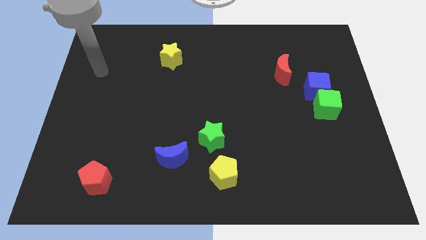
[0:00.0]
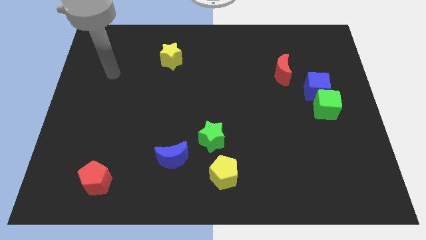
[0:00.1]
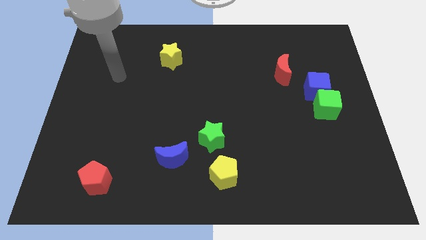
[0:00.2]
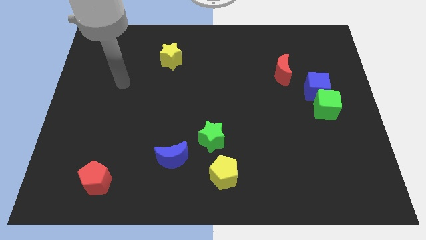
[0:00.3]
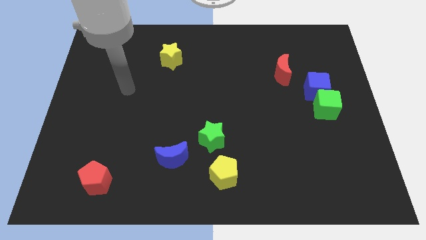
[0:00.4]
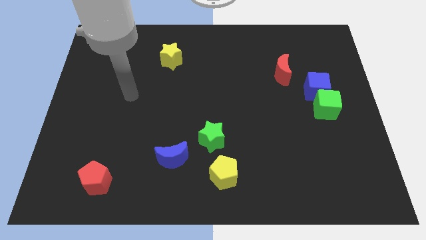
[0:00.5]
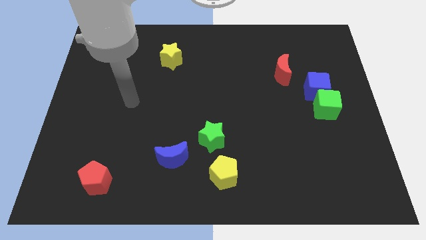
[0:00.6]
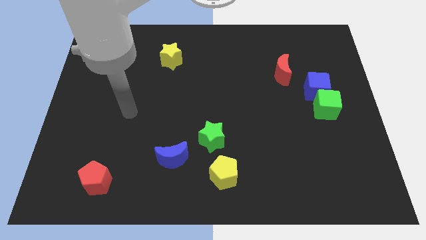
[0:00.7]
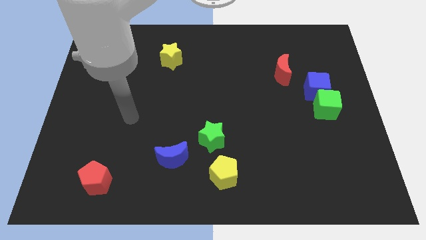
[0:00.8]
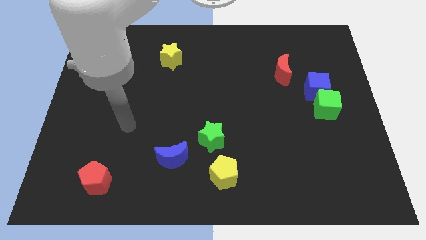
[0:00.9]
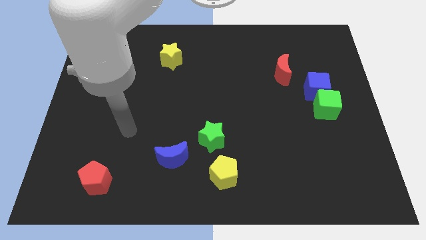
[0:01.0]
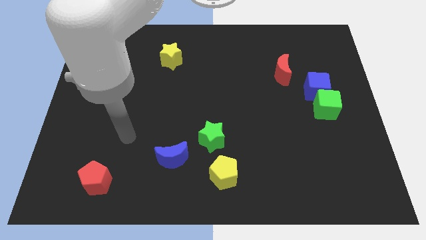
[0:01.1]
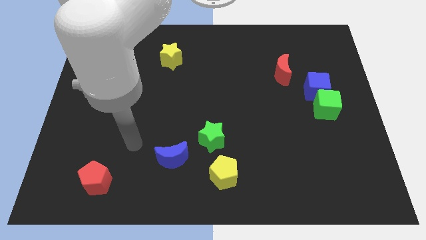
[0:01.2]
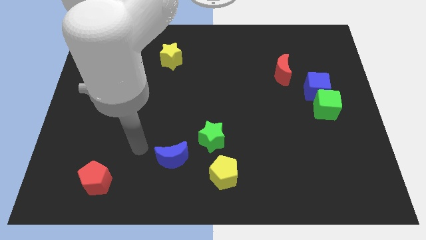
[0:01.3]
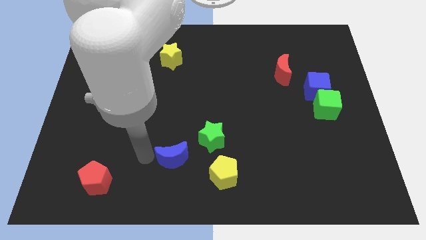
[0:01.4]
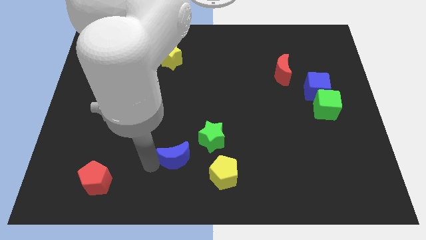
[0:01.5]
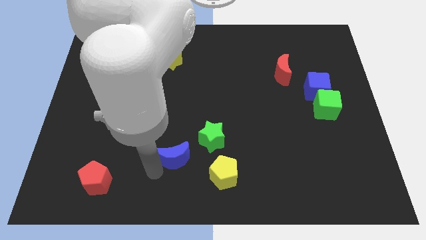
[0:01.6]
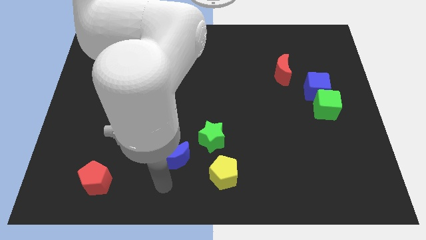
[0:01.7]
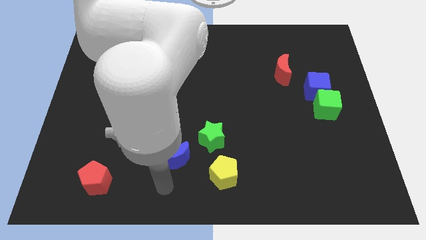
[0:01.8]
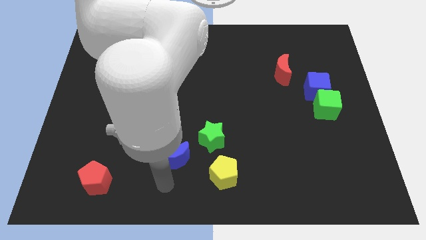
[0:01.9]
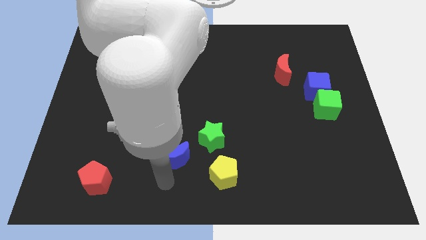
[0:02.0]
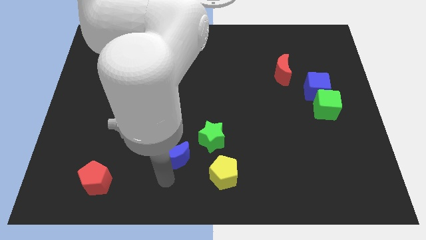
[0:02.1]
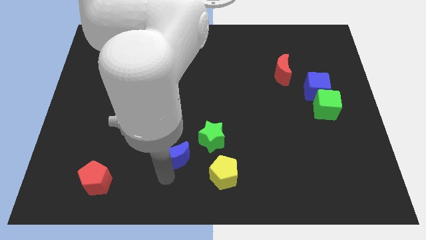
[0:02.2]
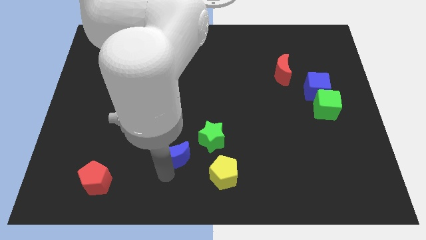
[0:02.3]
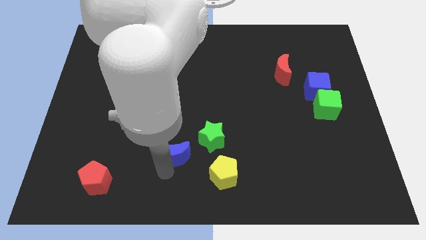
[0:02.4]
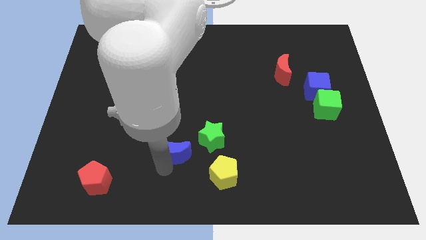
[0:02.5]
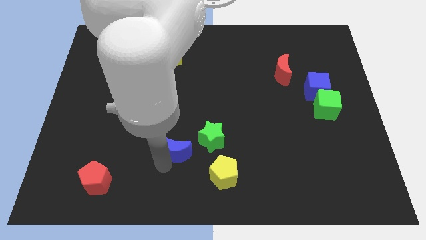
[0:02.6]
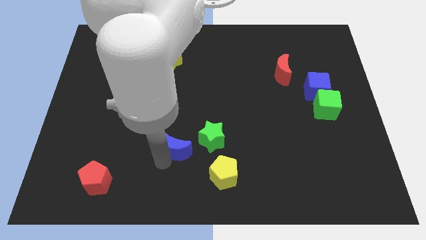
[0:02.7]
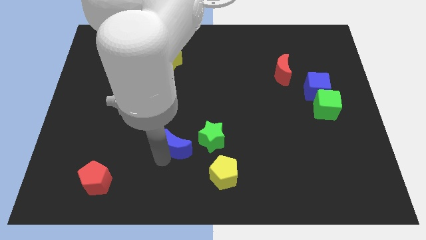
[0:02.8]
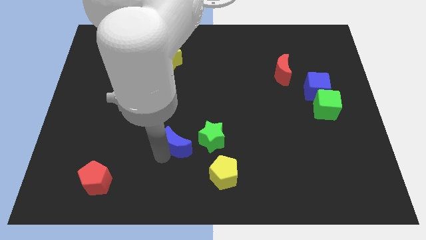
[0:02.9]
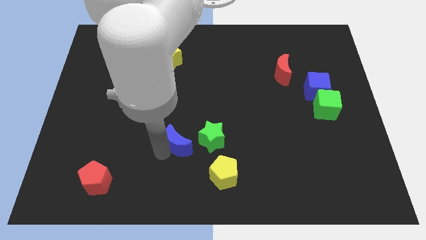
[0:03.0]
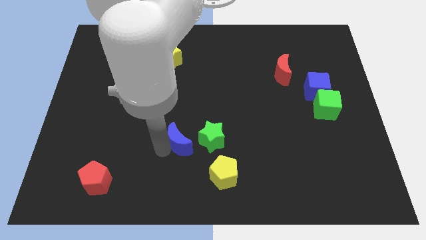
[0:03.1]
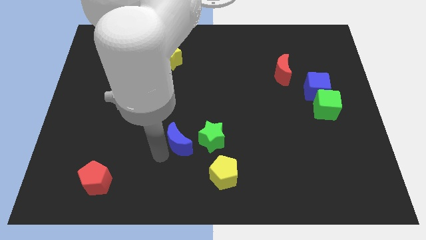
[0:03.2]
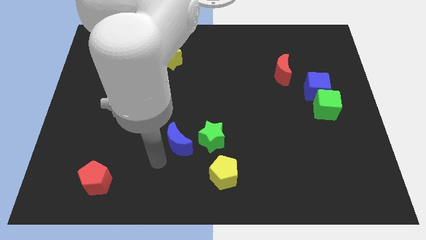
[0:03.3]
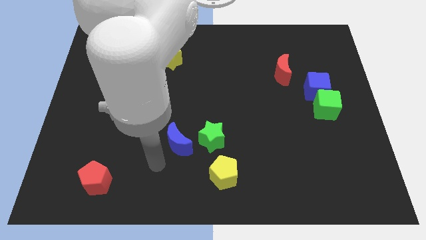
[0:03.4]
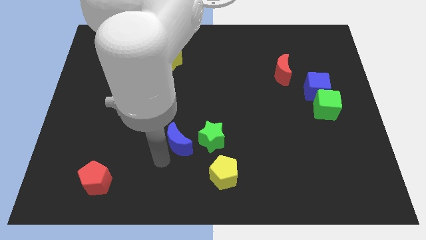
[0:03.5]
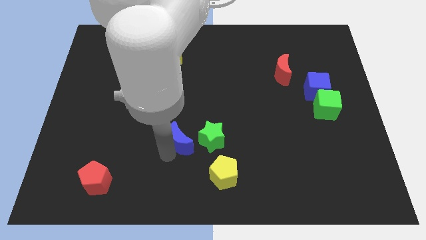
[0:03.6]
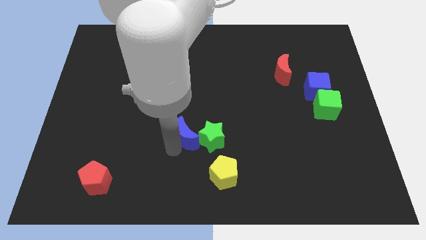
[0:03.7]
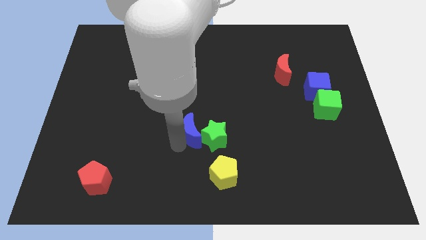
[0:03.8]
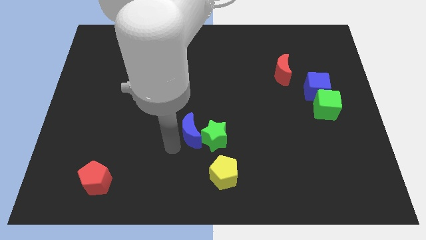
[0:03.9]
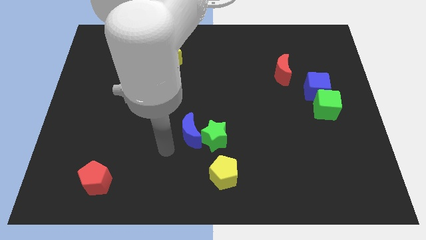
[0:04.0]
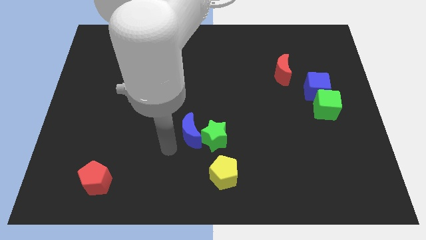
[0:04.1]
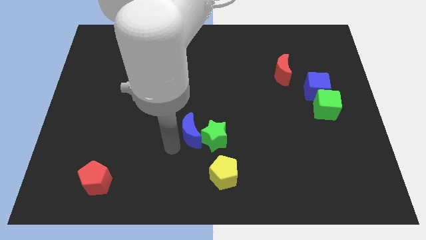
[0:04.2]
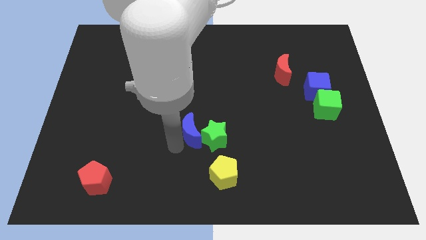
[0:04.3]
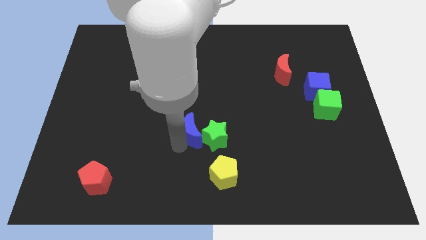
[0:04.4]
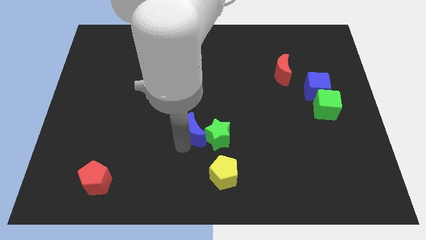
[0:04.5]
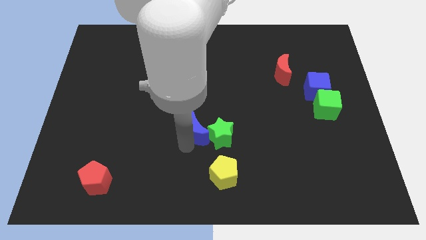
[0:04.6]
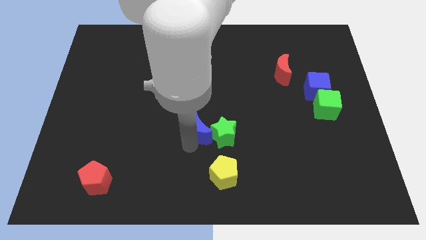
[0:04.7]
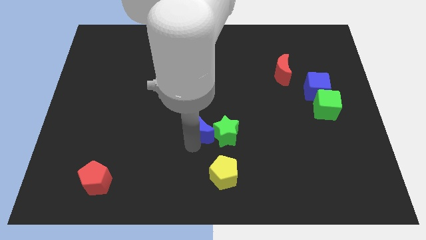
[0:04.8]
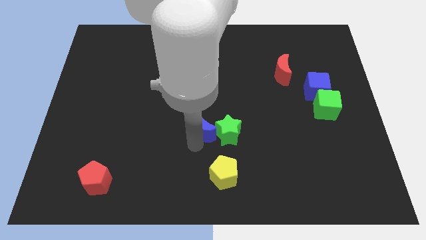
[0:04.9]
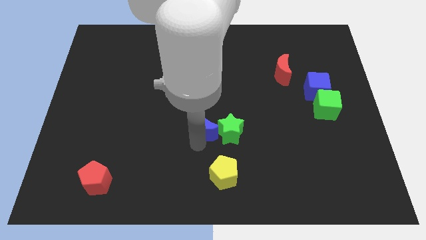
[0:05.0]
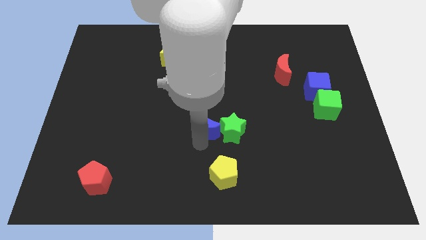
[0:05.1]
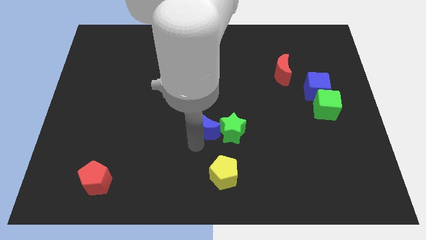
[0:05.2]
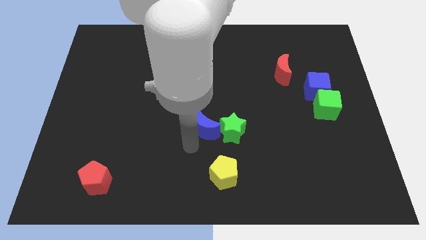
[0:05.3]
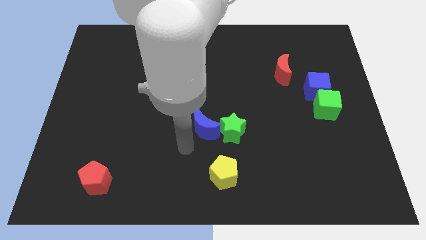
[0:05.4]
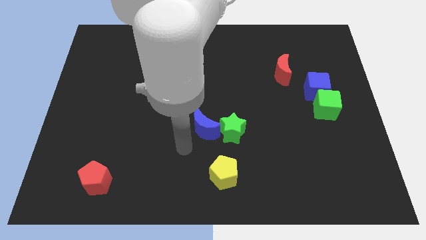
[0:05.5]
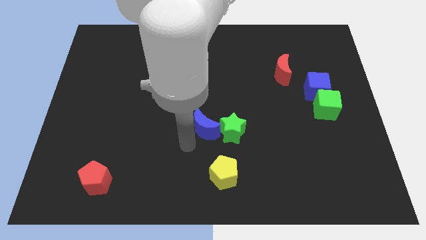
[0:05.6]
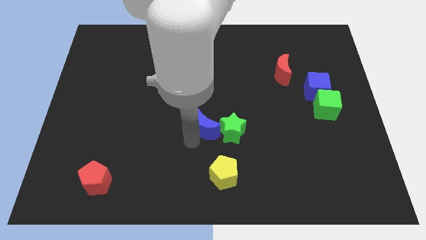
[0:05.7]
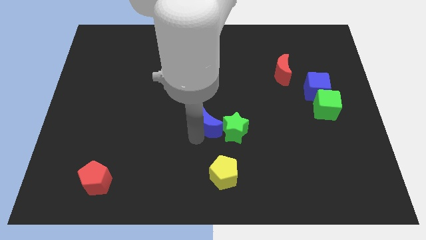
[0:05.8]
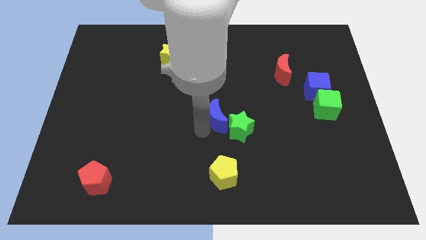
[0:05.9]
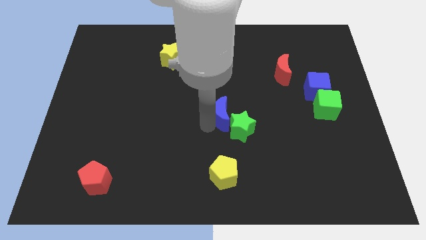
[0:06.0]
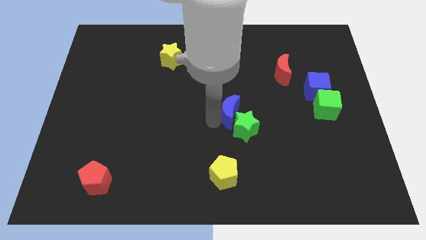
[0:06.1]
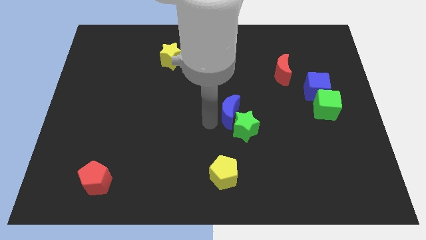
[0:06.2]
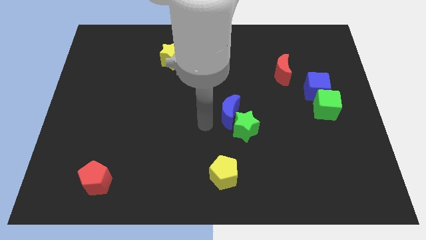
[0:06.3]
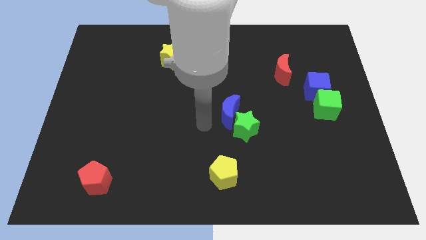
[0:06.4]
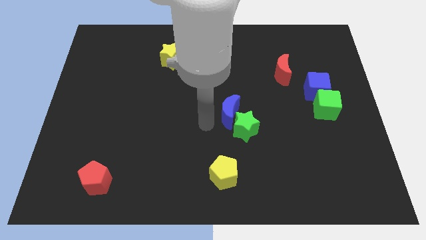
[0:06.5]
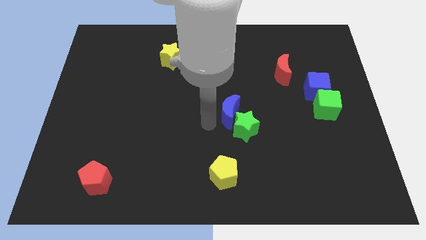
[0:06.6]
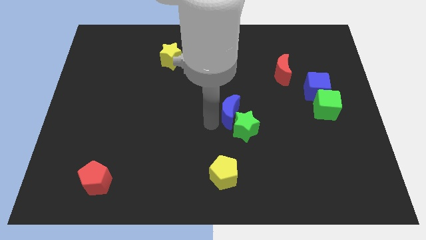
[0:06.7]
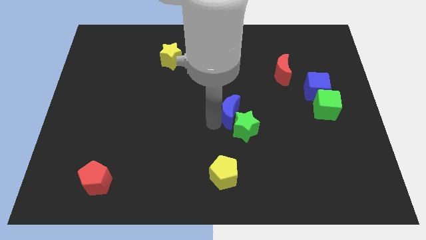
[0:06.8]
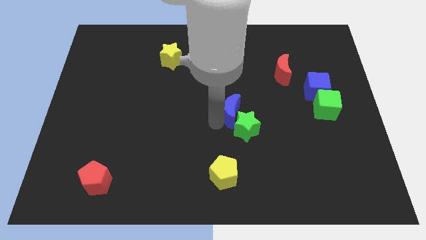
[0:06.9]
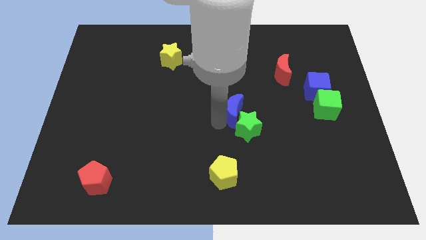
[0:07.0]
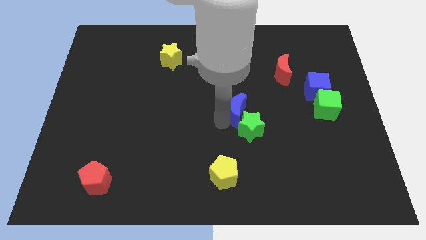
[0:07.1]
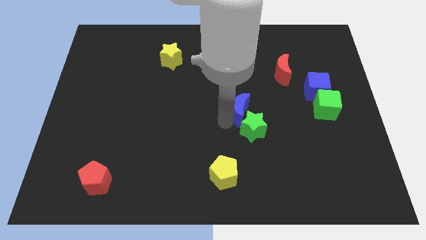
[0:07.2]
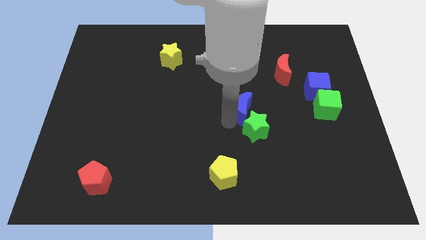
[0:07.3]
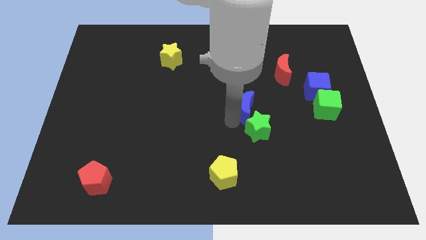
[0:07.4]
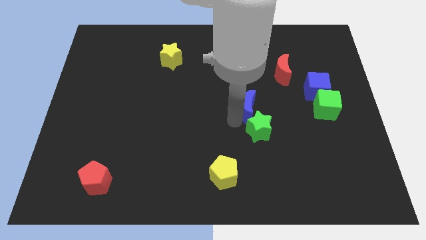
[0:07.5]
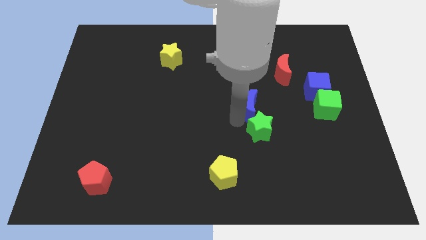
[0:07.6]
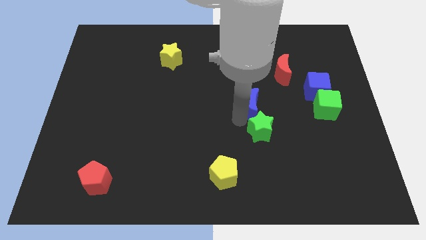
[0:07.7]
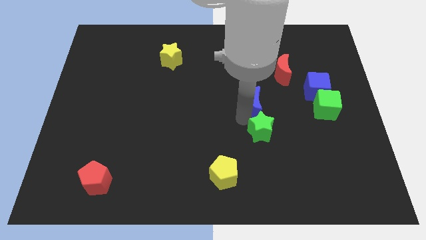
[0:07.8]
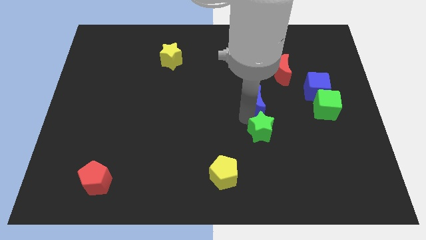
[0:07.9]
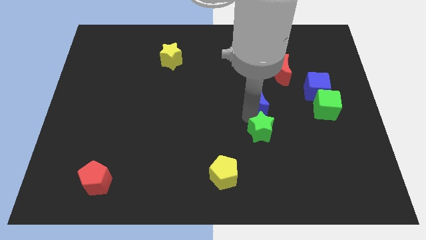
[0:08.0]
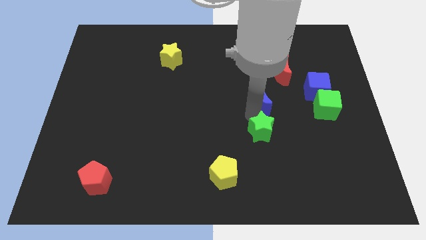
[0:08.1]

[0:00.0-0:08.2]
push the blue moon left of the blue cube
